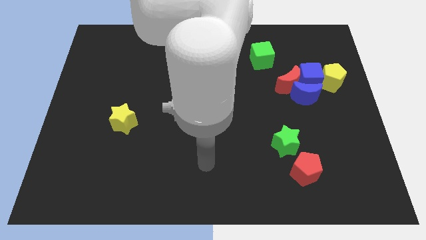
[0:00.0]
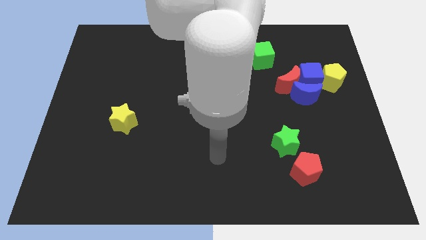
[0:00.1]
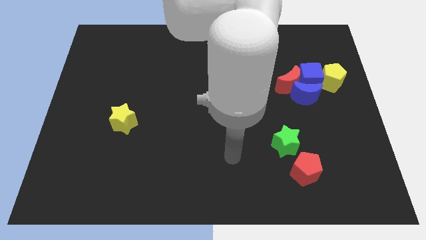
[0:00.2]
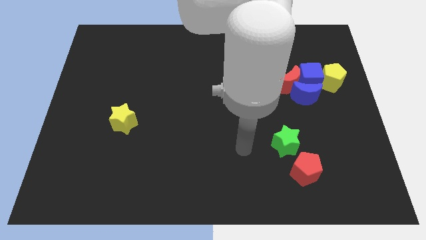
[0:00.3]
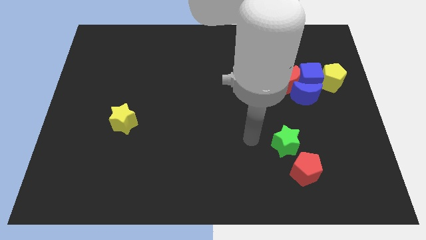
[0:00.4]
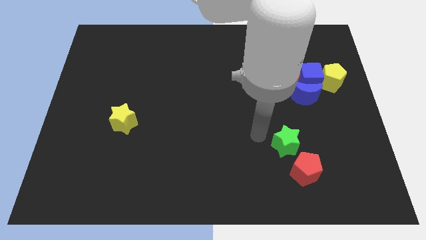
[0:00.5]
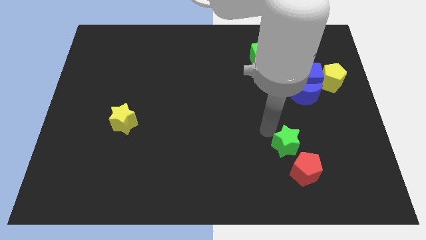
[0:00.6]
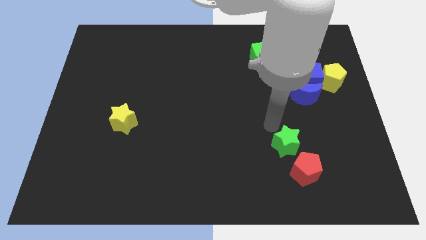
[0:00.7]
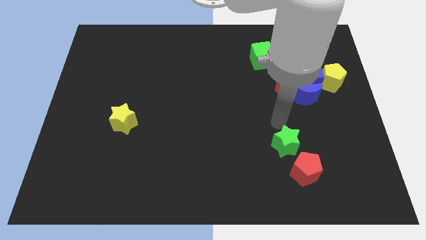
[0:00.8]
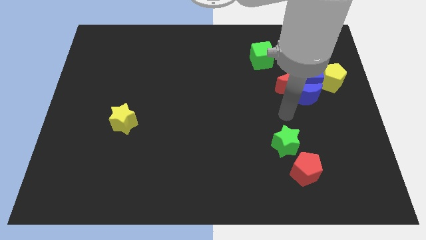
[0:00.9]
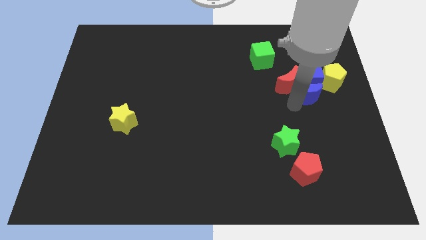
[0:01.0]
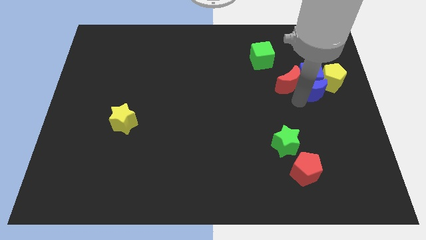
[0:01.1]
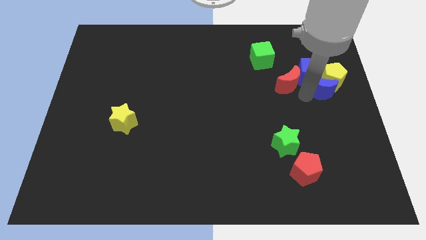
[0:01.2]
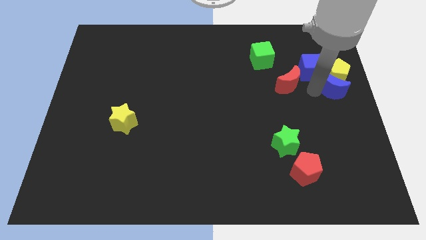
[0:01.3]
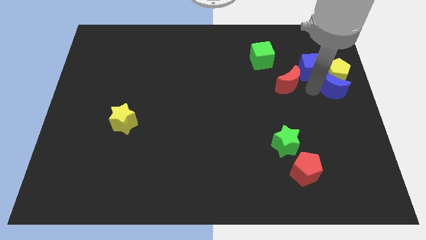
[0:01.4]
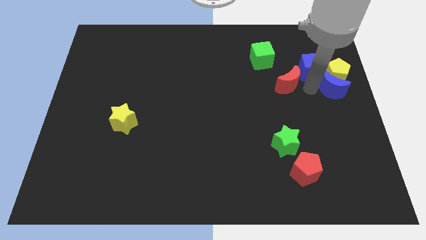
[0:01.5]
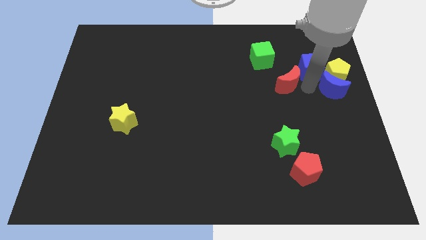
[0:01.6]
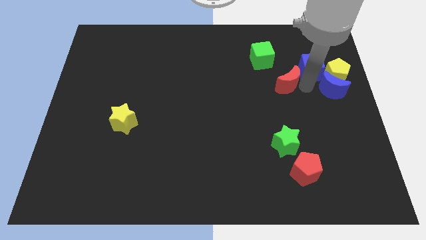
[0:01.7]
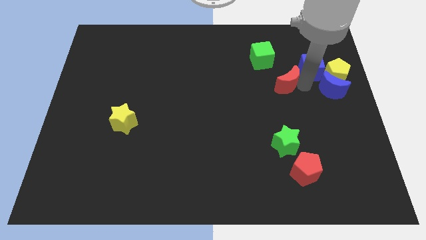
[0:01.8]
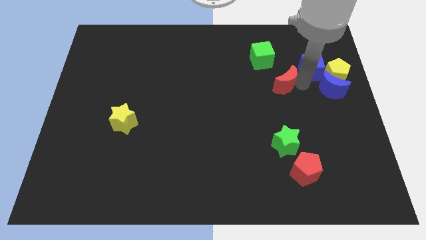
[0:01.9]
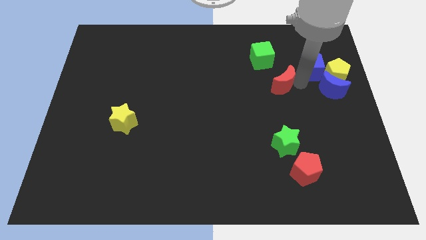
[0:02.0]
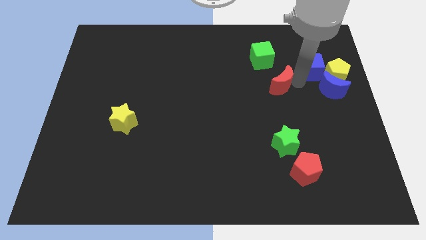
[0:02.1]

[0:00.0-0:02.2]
move the red moon away from the blue moon and blue cube

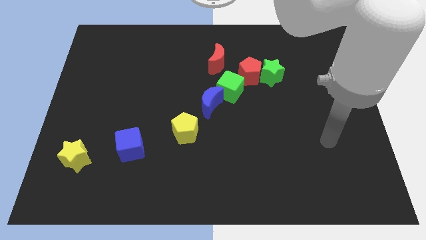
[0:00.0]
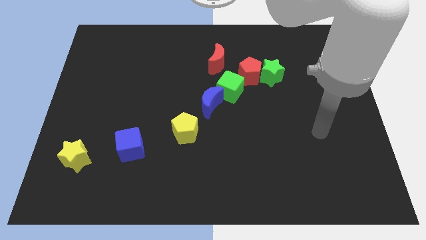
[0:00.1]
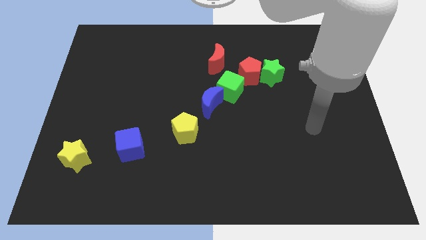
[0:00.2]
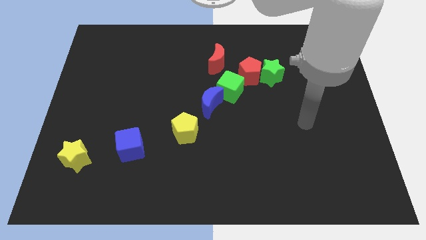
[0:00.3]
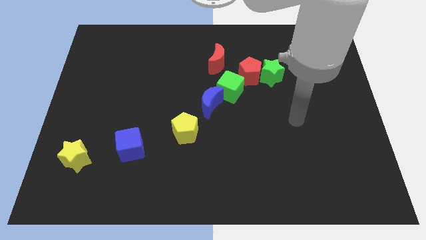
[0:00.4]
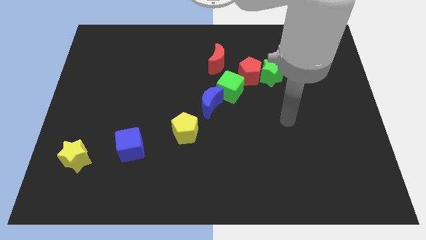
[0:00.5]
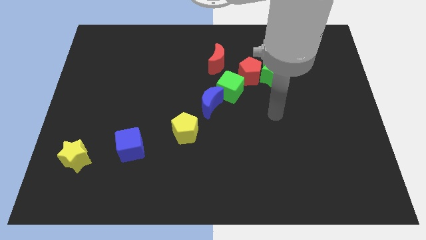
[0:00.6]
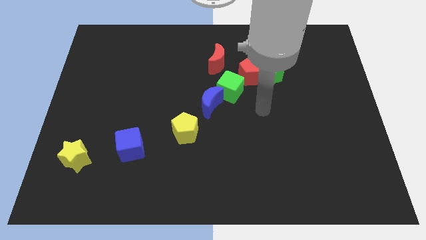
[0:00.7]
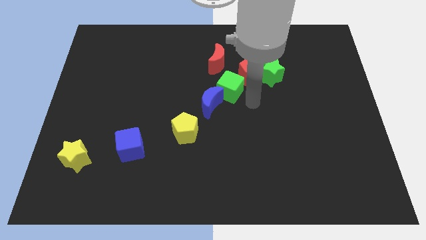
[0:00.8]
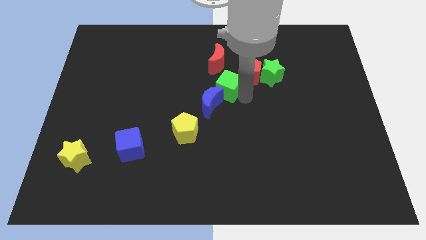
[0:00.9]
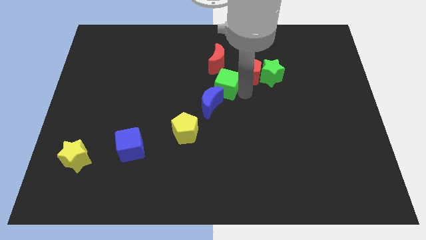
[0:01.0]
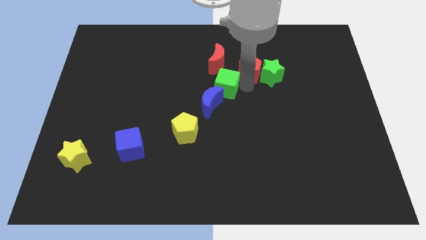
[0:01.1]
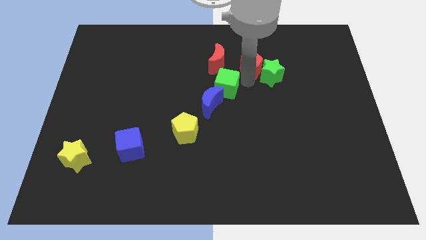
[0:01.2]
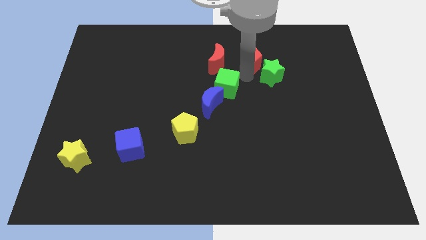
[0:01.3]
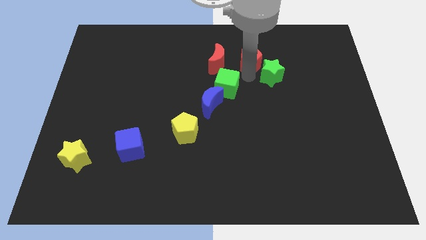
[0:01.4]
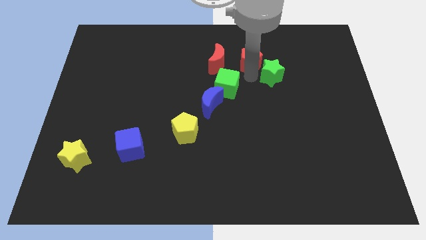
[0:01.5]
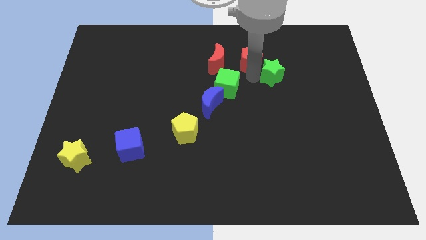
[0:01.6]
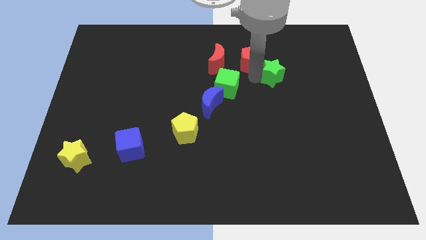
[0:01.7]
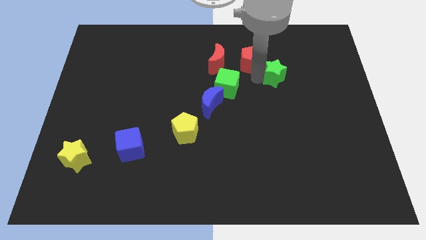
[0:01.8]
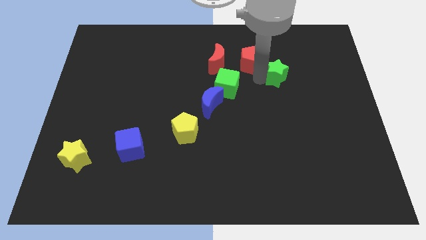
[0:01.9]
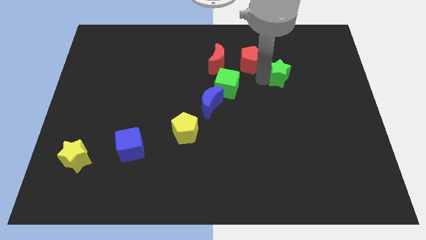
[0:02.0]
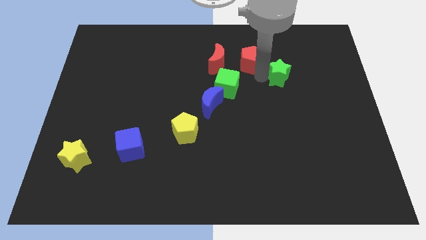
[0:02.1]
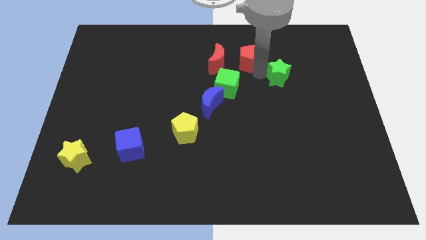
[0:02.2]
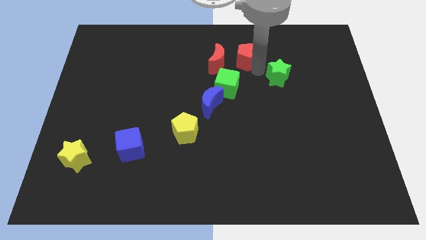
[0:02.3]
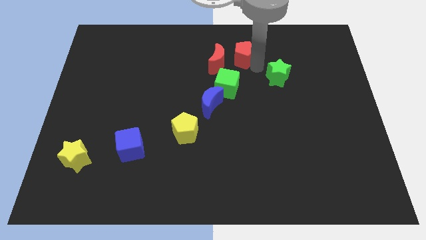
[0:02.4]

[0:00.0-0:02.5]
pull the green star apart from the red pentagon

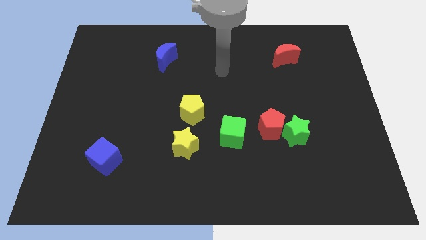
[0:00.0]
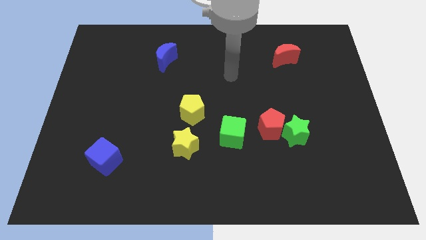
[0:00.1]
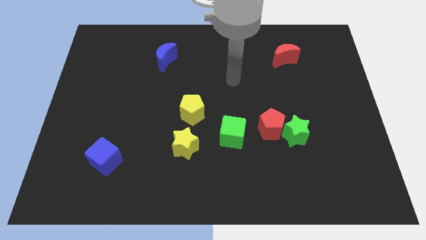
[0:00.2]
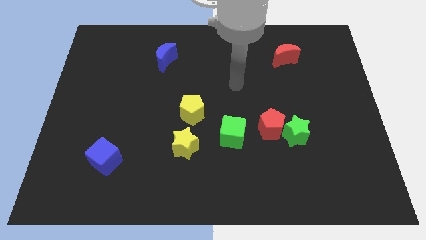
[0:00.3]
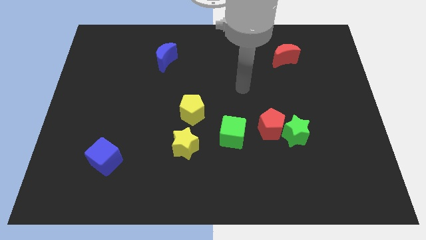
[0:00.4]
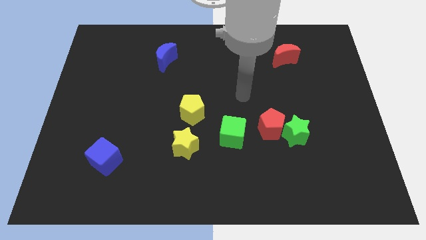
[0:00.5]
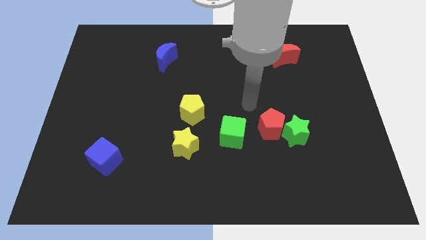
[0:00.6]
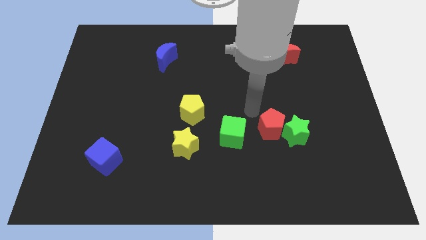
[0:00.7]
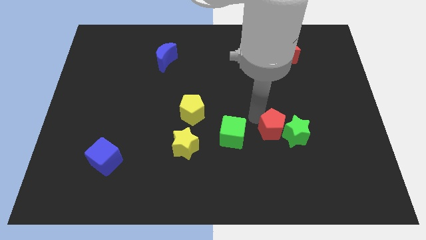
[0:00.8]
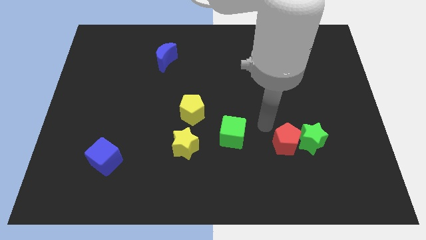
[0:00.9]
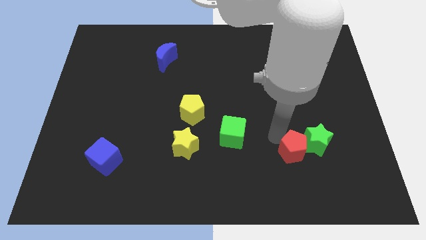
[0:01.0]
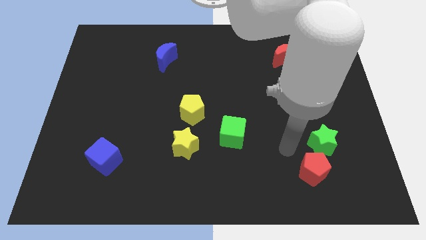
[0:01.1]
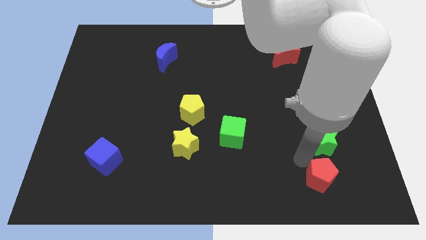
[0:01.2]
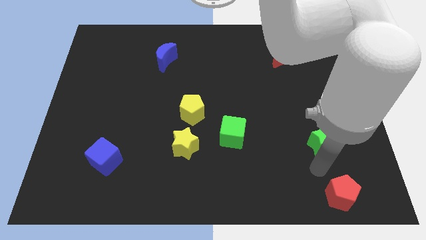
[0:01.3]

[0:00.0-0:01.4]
move the green star away from the red pentagon

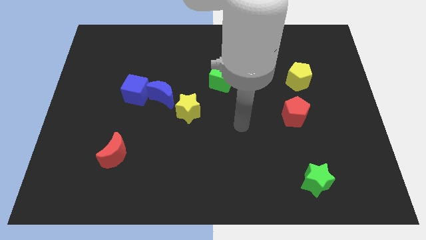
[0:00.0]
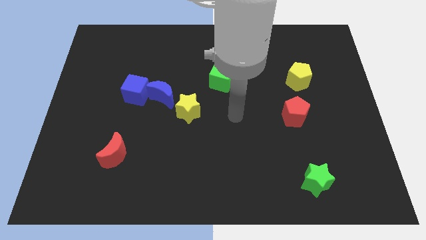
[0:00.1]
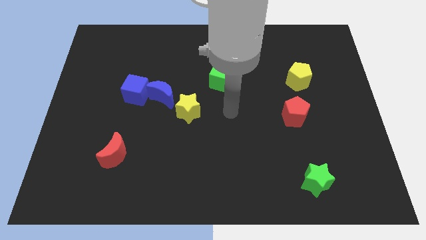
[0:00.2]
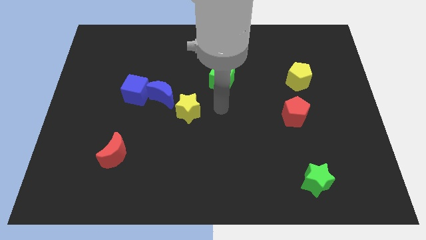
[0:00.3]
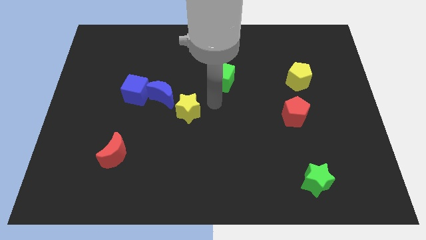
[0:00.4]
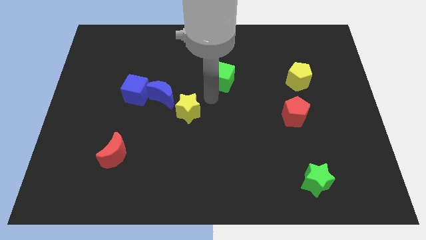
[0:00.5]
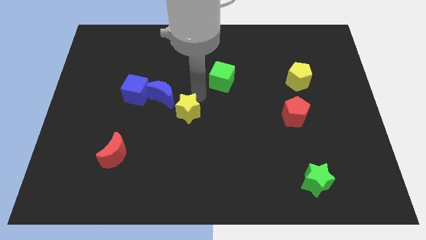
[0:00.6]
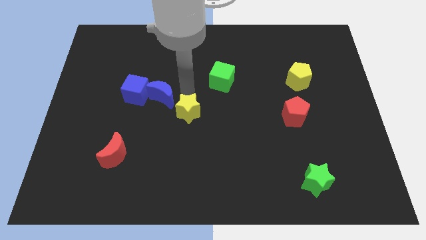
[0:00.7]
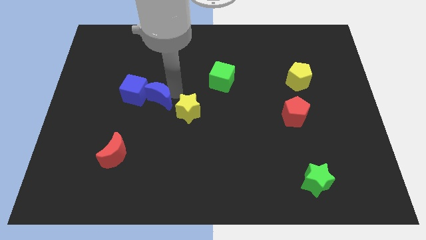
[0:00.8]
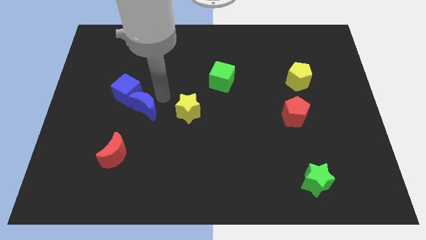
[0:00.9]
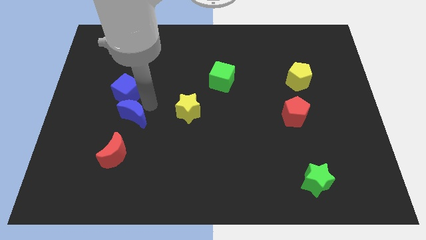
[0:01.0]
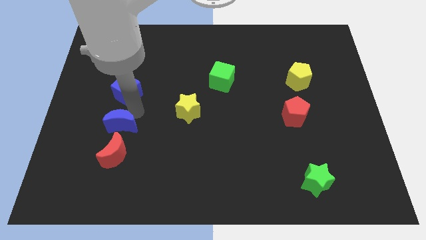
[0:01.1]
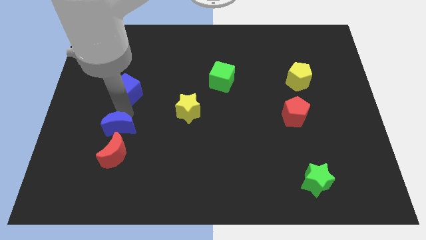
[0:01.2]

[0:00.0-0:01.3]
move the blue cube away from the blue moon

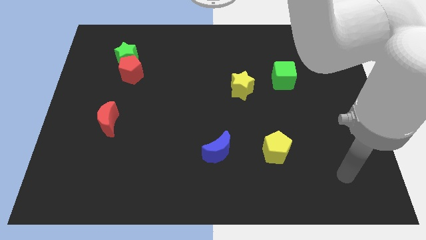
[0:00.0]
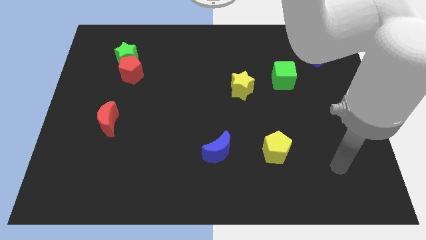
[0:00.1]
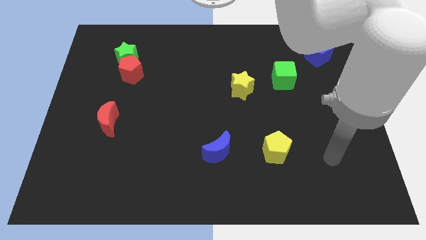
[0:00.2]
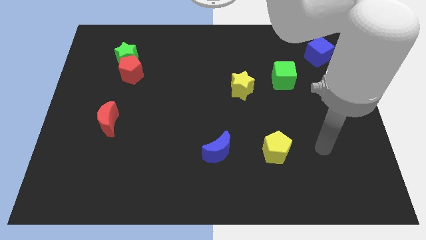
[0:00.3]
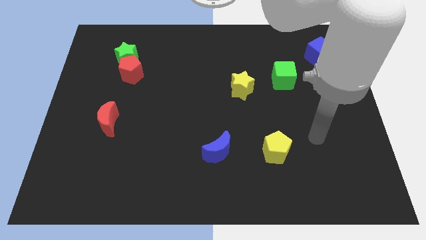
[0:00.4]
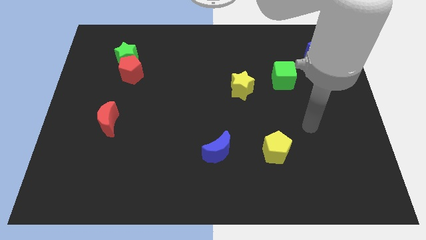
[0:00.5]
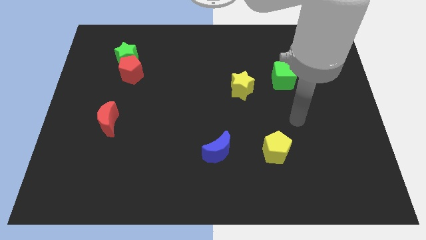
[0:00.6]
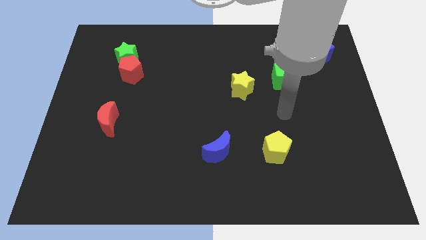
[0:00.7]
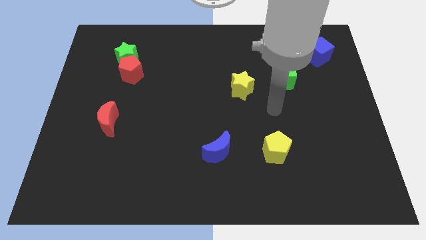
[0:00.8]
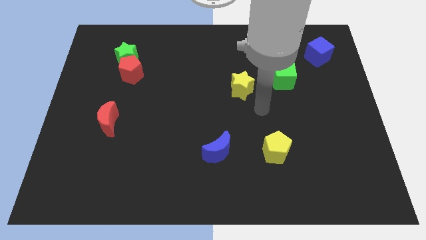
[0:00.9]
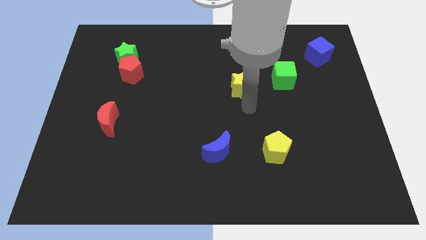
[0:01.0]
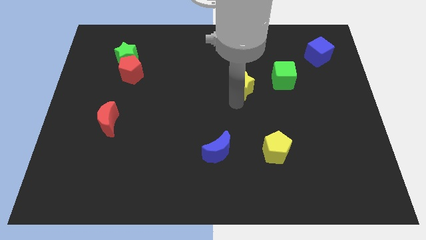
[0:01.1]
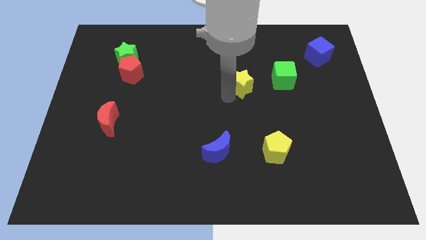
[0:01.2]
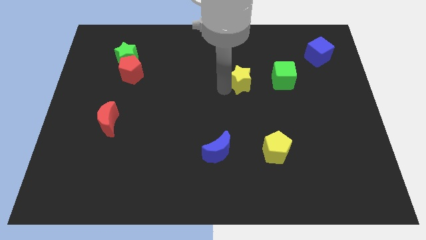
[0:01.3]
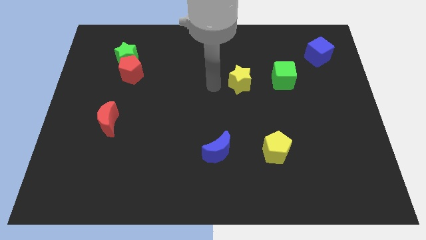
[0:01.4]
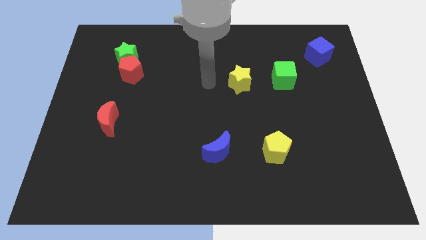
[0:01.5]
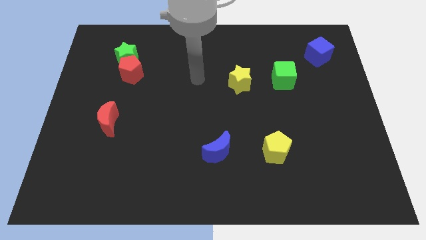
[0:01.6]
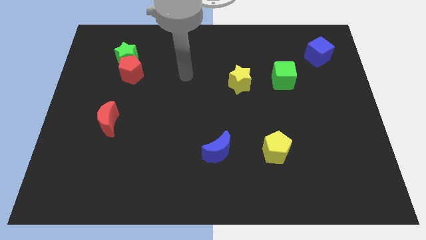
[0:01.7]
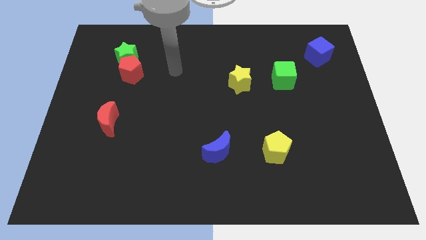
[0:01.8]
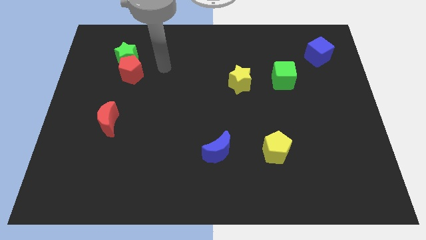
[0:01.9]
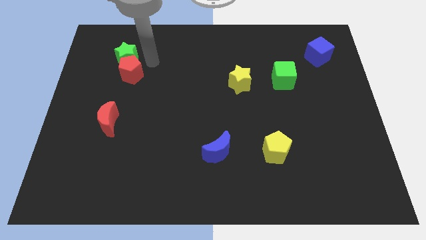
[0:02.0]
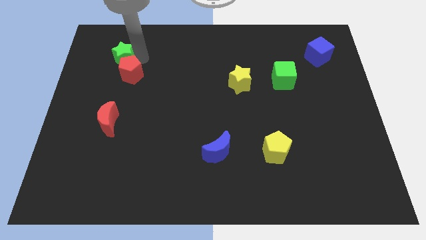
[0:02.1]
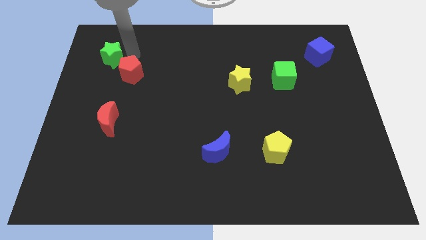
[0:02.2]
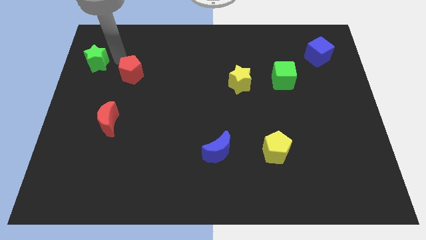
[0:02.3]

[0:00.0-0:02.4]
pull the red pentagon apart from the green star
